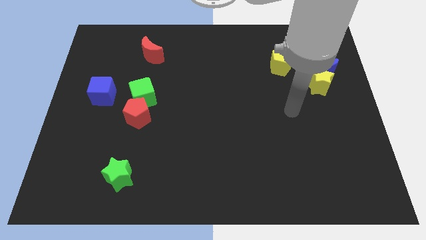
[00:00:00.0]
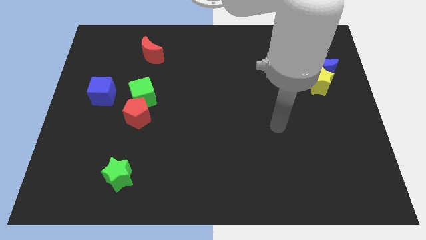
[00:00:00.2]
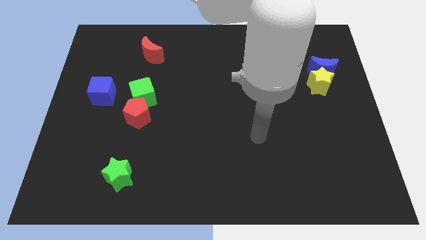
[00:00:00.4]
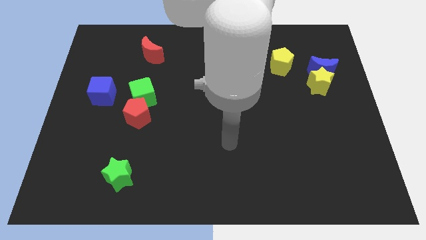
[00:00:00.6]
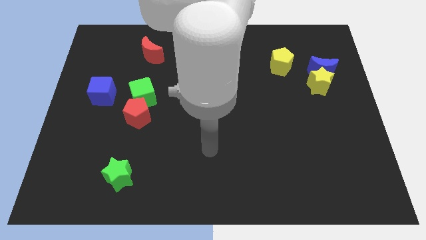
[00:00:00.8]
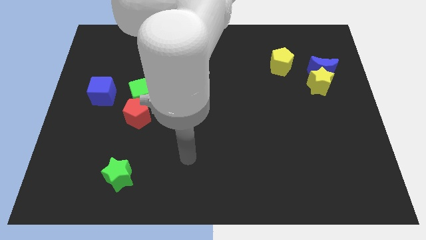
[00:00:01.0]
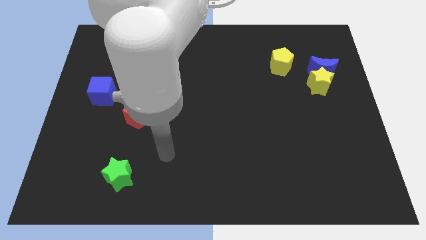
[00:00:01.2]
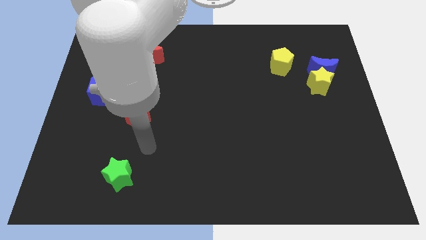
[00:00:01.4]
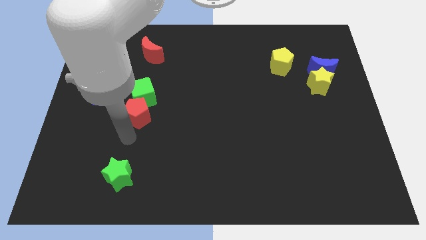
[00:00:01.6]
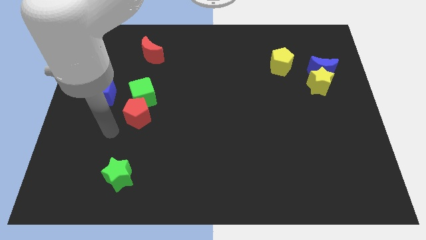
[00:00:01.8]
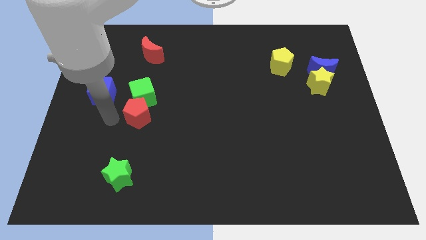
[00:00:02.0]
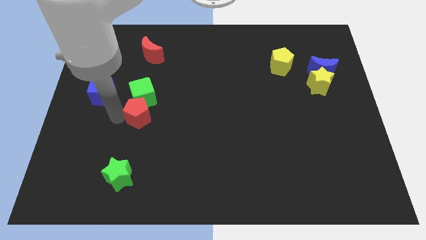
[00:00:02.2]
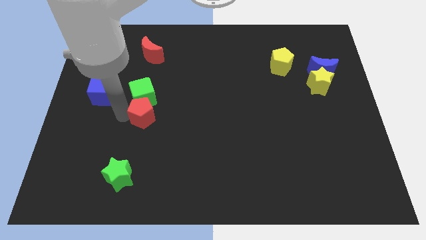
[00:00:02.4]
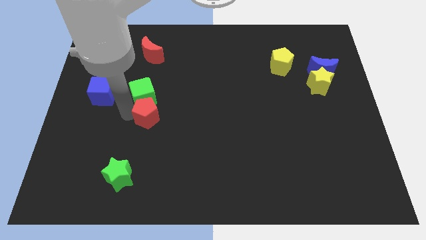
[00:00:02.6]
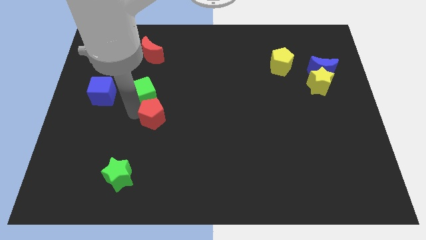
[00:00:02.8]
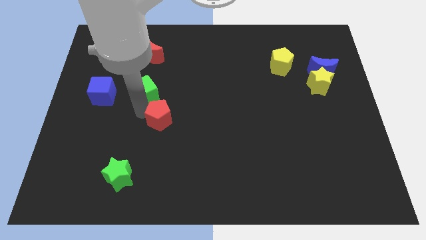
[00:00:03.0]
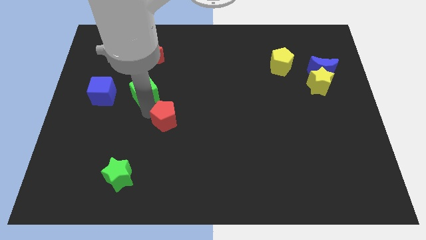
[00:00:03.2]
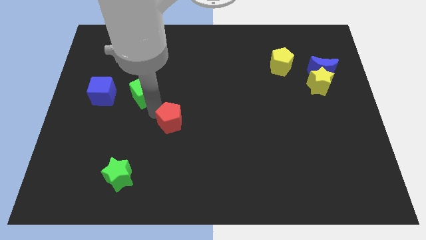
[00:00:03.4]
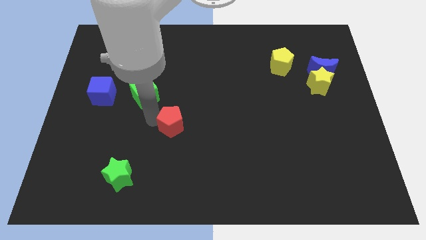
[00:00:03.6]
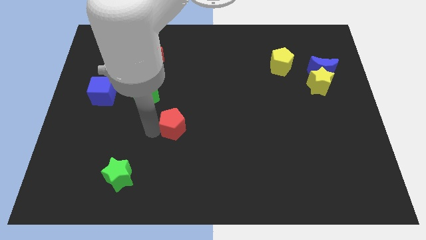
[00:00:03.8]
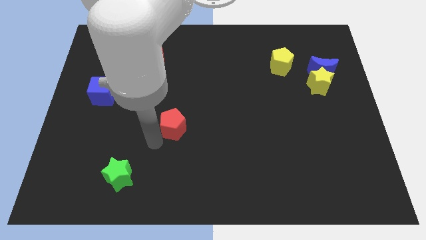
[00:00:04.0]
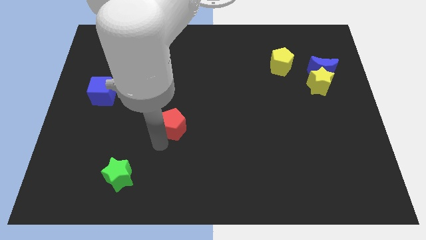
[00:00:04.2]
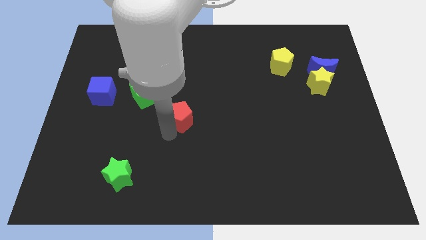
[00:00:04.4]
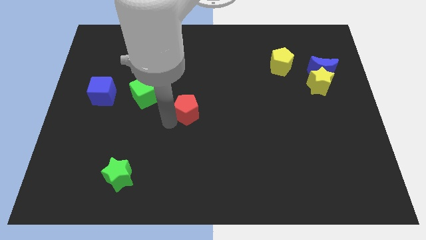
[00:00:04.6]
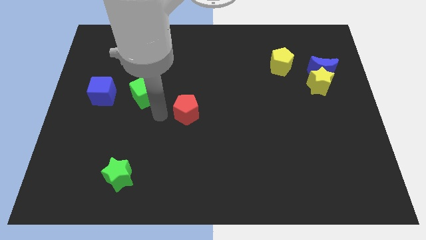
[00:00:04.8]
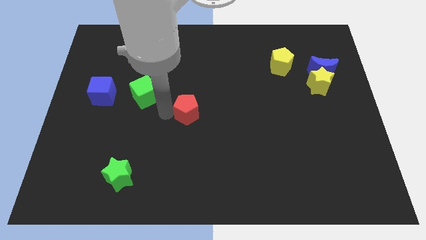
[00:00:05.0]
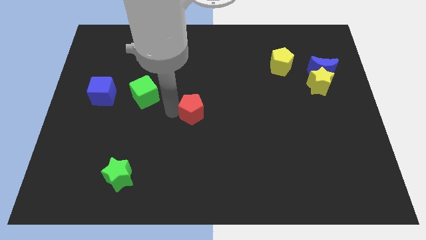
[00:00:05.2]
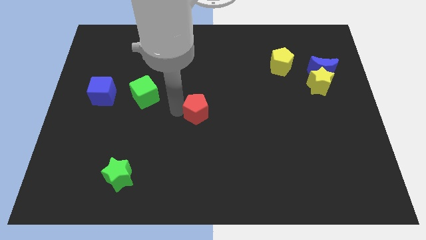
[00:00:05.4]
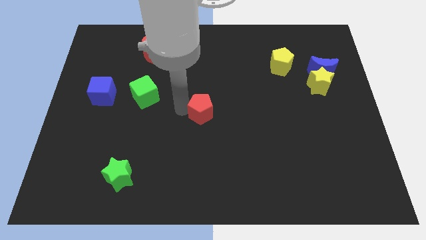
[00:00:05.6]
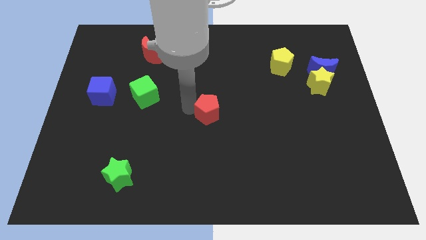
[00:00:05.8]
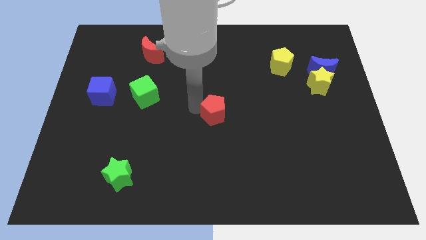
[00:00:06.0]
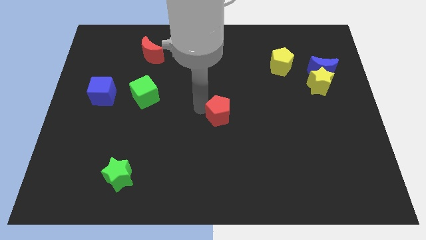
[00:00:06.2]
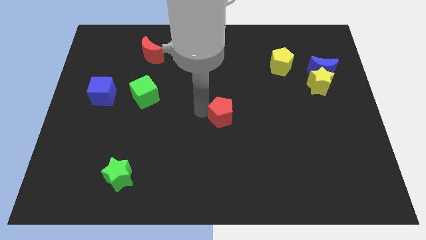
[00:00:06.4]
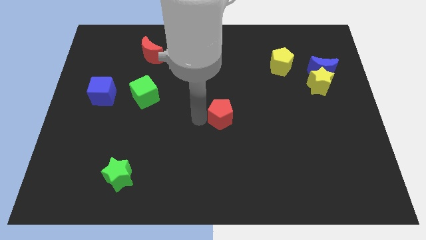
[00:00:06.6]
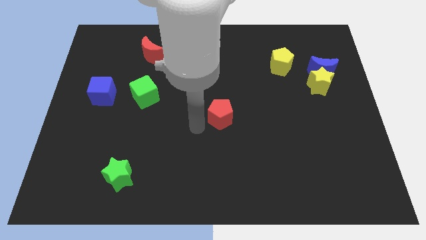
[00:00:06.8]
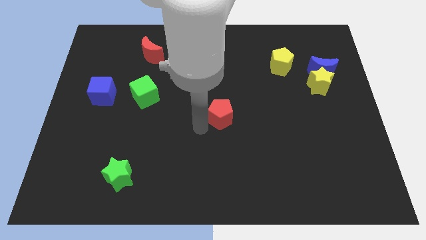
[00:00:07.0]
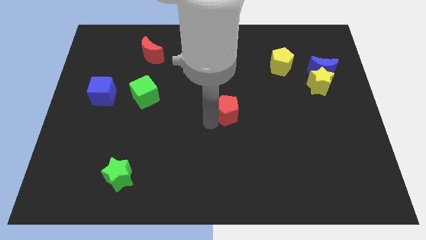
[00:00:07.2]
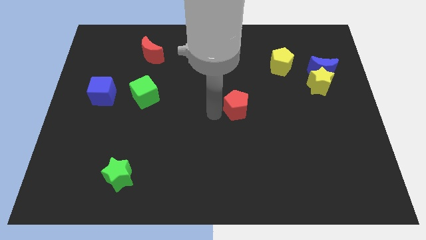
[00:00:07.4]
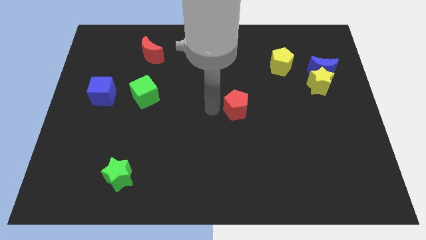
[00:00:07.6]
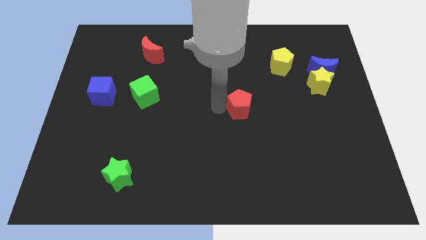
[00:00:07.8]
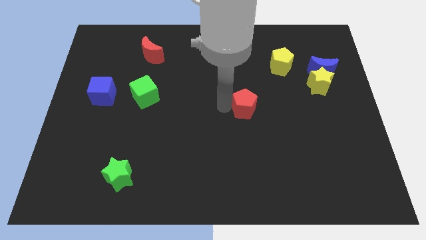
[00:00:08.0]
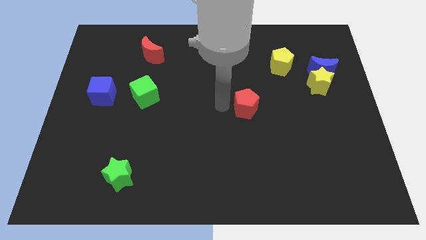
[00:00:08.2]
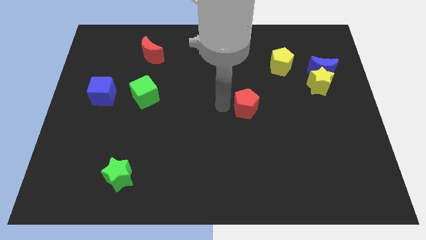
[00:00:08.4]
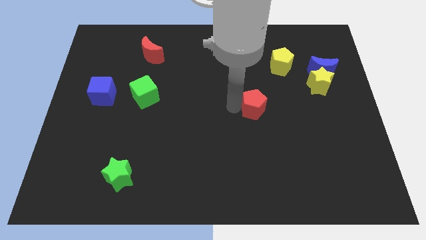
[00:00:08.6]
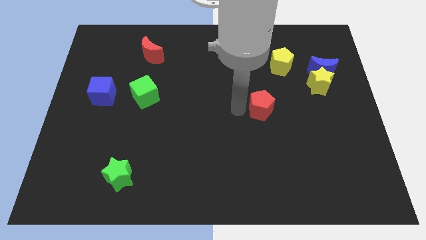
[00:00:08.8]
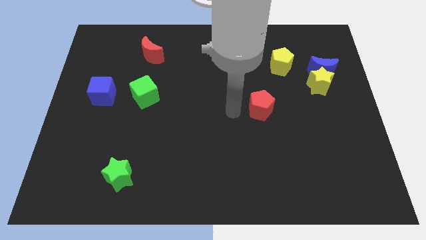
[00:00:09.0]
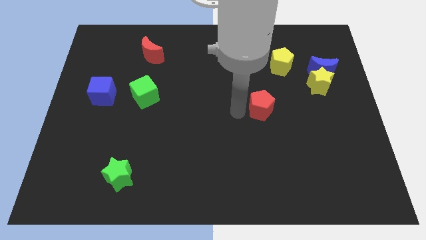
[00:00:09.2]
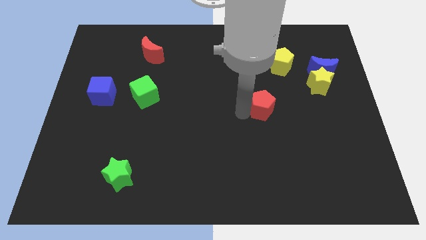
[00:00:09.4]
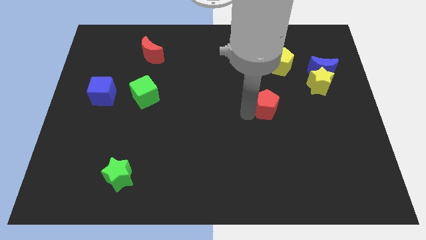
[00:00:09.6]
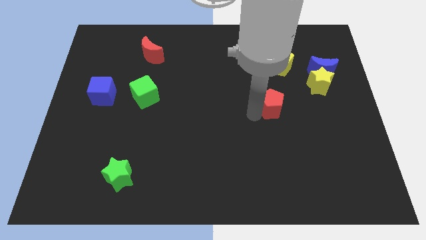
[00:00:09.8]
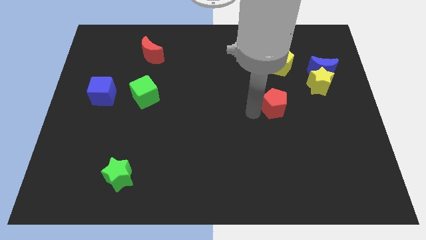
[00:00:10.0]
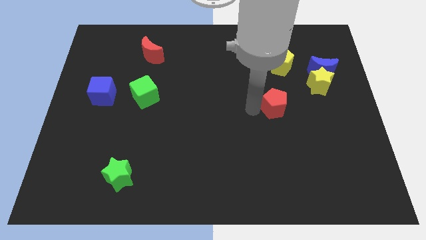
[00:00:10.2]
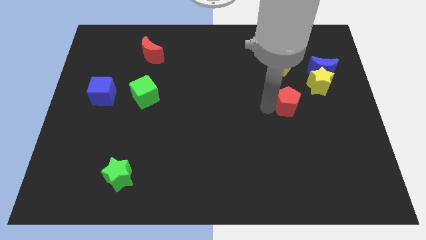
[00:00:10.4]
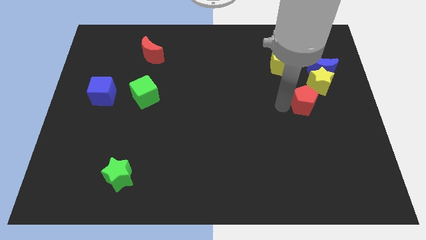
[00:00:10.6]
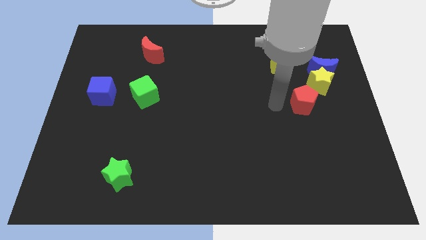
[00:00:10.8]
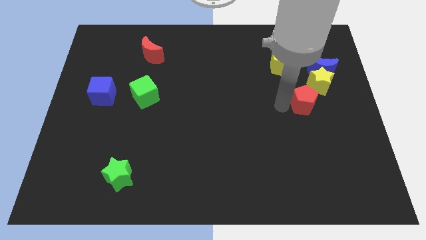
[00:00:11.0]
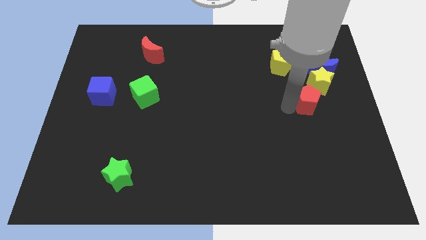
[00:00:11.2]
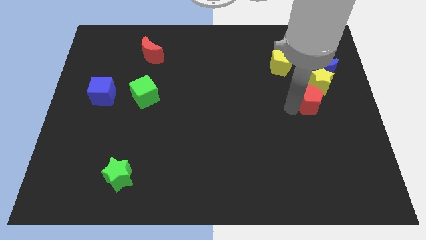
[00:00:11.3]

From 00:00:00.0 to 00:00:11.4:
put the red pentagon to the bottom side of the blue moon
